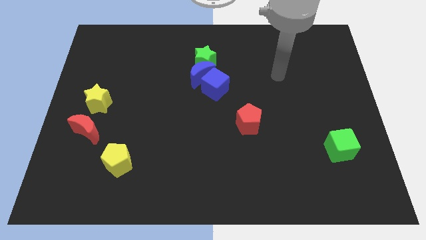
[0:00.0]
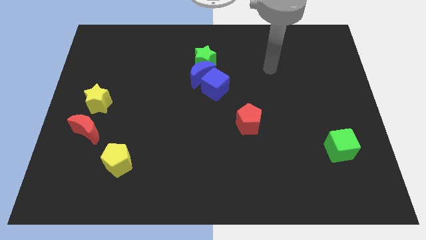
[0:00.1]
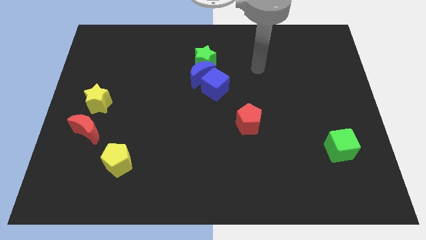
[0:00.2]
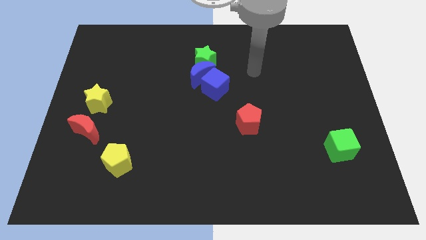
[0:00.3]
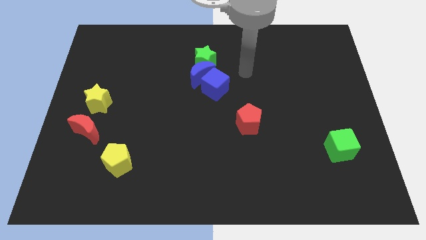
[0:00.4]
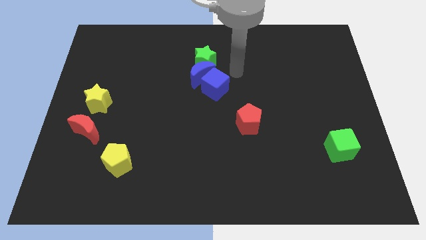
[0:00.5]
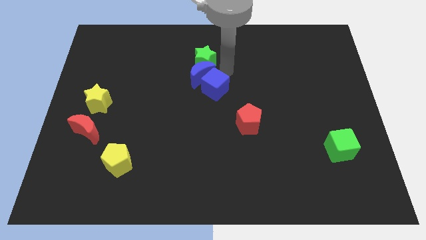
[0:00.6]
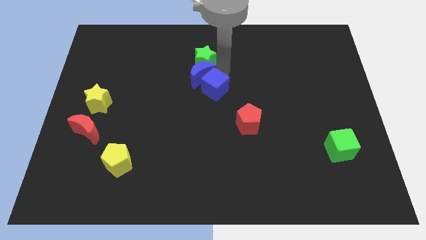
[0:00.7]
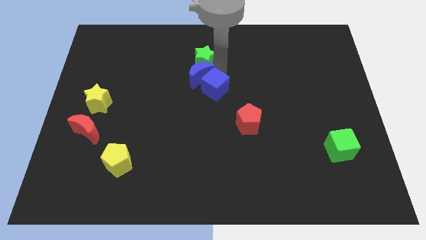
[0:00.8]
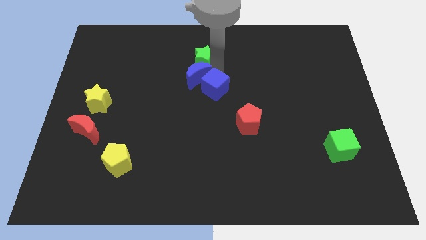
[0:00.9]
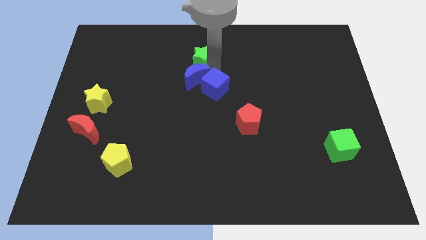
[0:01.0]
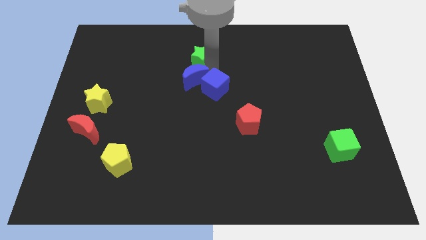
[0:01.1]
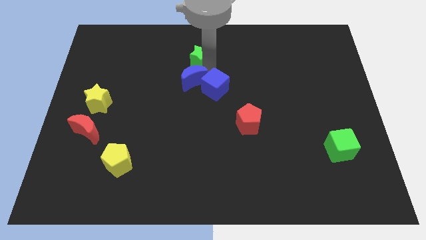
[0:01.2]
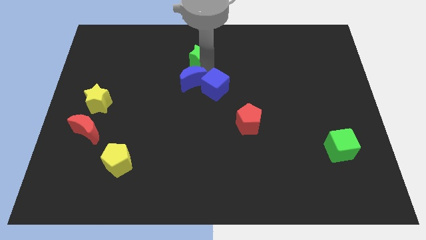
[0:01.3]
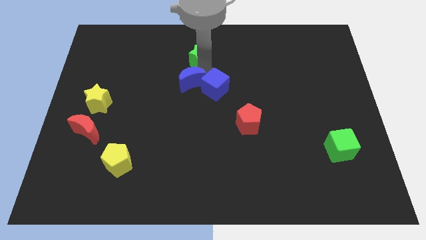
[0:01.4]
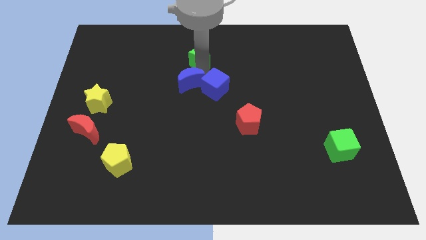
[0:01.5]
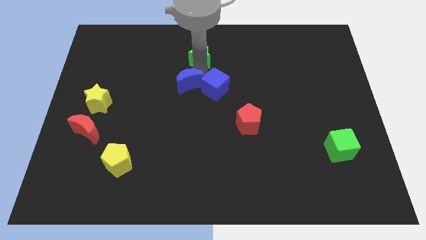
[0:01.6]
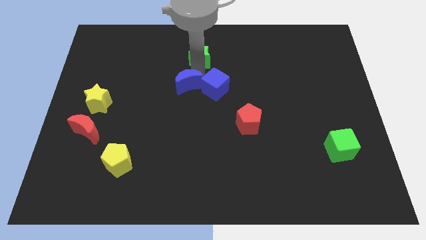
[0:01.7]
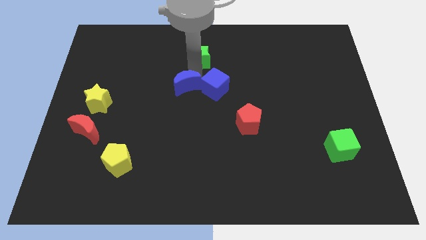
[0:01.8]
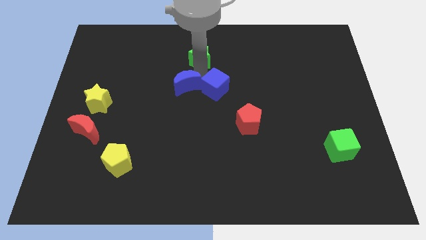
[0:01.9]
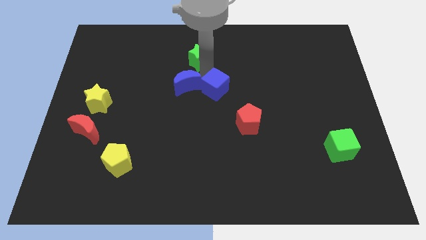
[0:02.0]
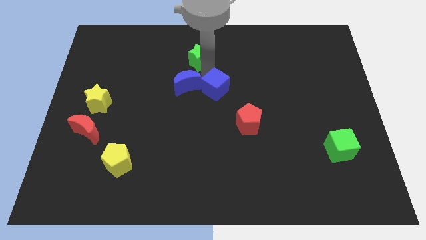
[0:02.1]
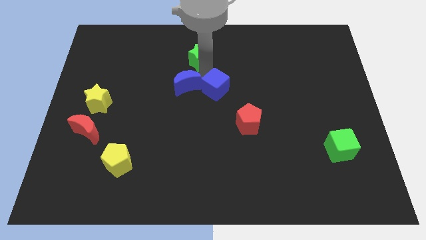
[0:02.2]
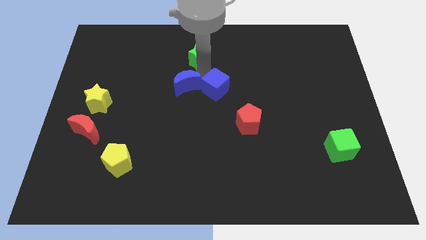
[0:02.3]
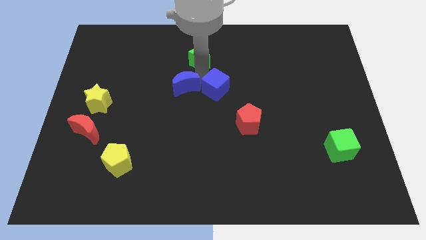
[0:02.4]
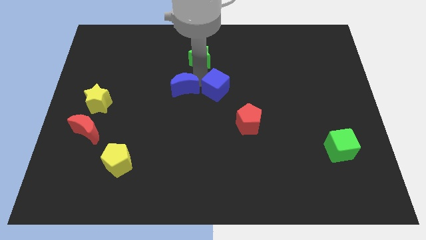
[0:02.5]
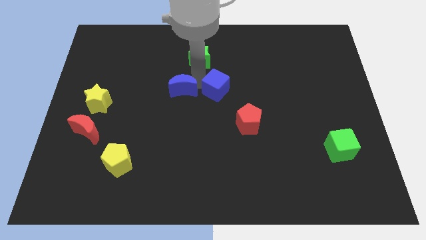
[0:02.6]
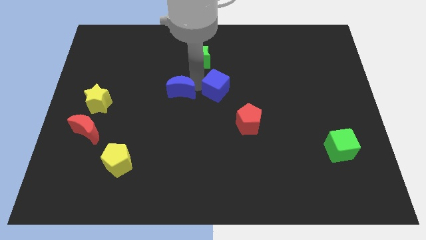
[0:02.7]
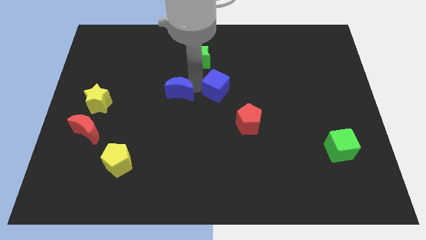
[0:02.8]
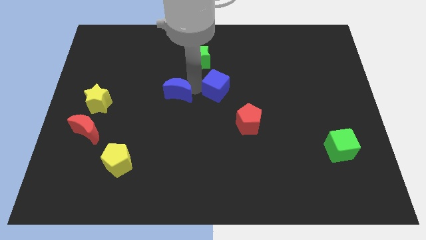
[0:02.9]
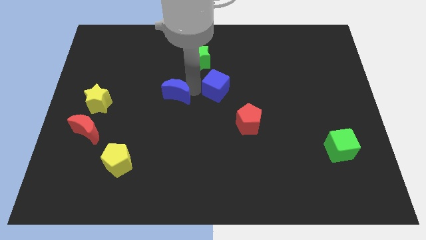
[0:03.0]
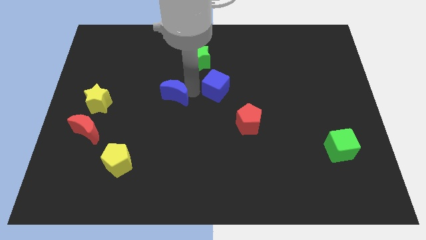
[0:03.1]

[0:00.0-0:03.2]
pull the blue moon apart from the blue cube and green star

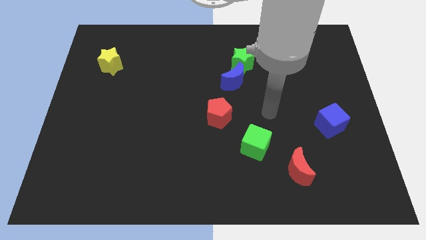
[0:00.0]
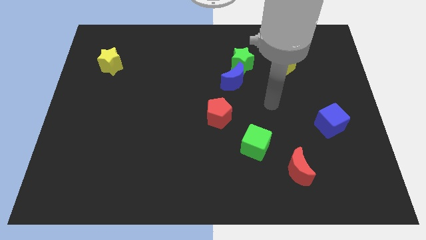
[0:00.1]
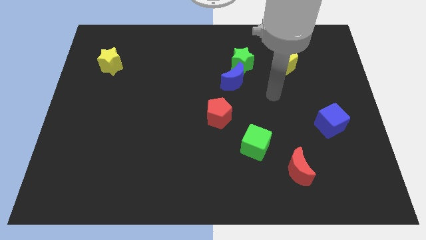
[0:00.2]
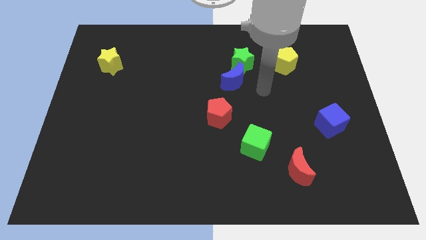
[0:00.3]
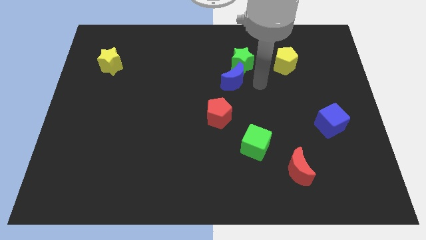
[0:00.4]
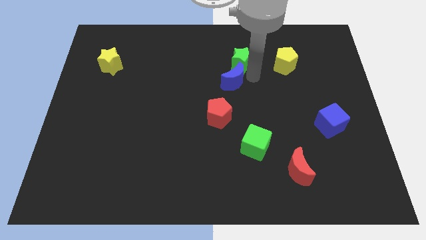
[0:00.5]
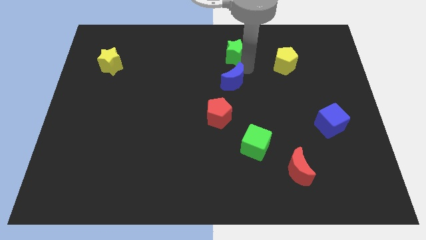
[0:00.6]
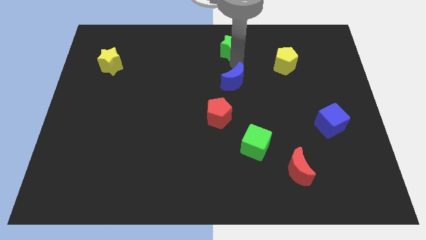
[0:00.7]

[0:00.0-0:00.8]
pull the blue moon apart from the green star

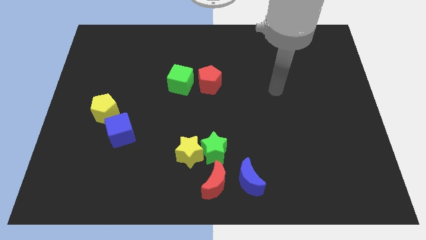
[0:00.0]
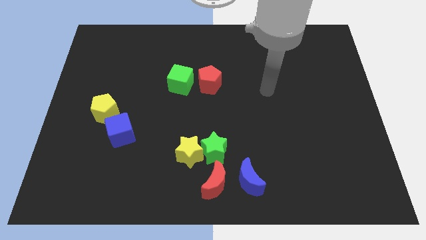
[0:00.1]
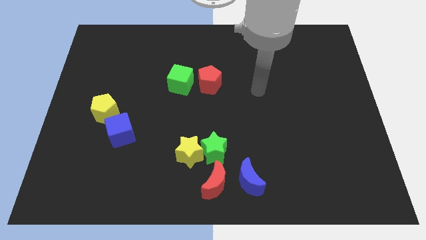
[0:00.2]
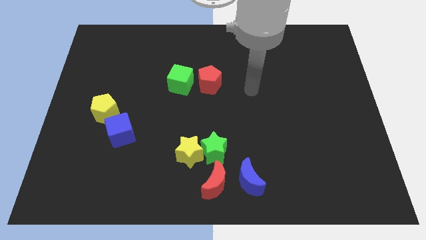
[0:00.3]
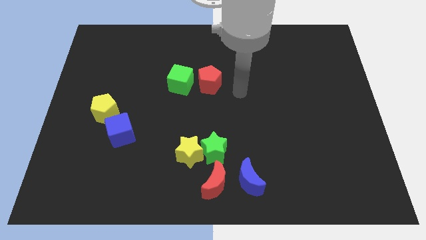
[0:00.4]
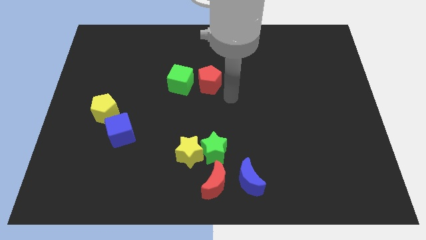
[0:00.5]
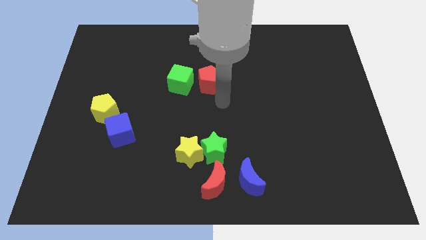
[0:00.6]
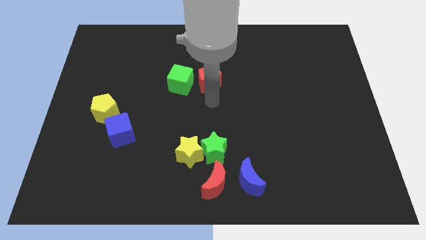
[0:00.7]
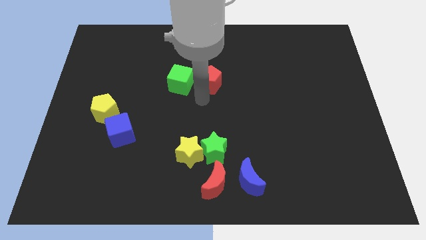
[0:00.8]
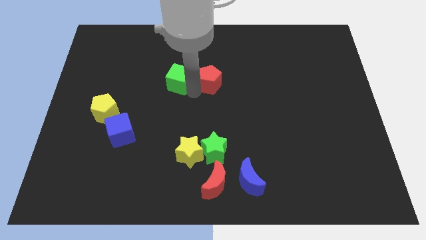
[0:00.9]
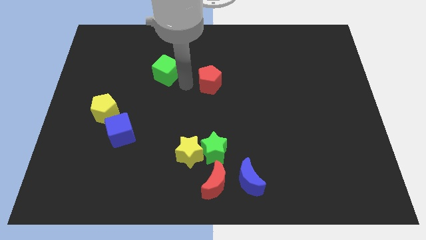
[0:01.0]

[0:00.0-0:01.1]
pull the red pentagon apart from the green cube

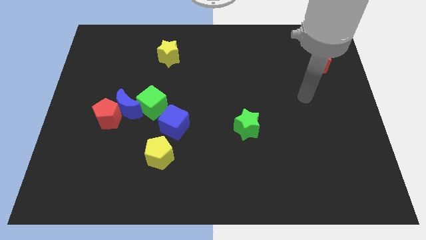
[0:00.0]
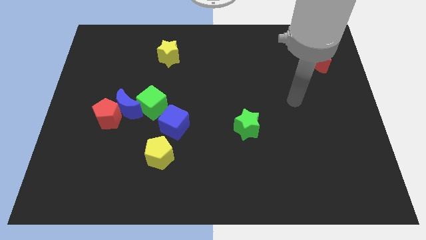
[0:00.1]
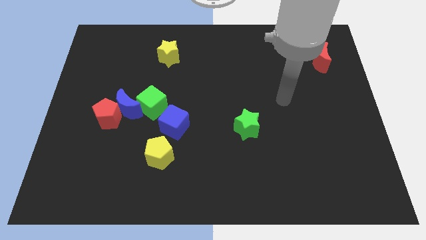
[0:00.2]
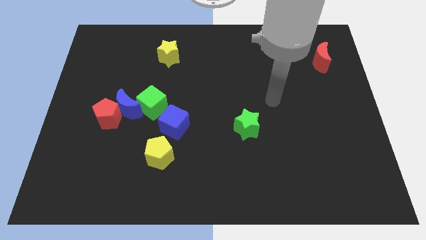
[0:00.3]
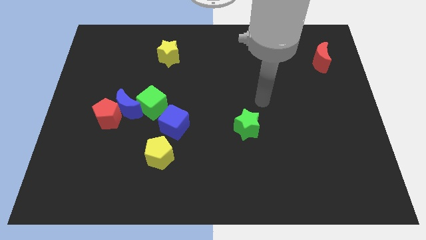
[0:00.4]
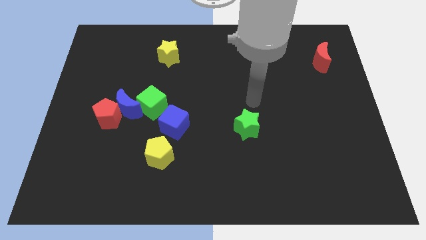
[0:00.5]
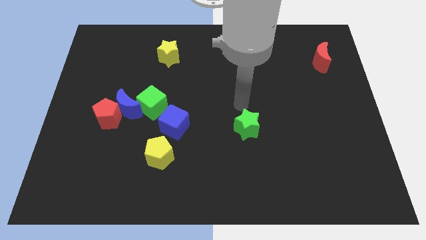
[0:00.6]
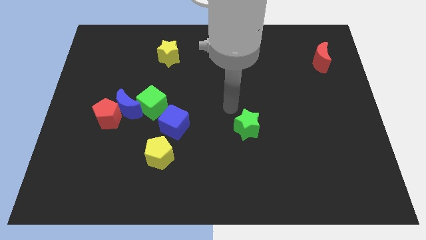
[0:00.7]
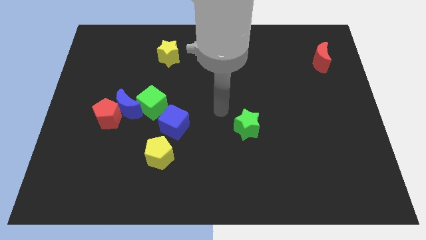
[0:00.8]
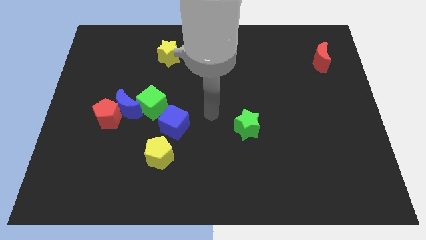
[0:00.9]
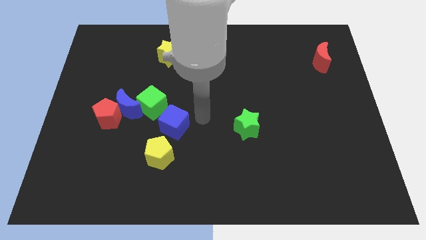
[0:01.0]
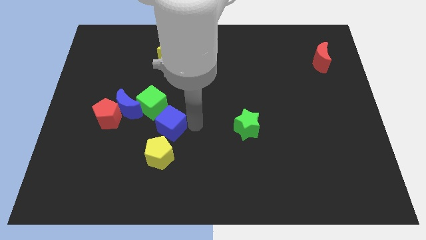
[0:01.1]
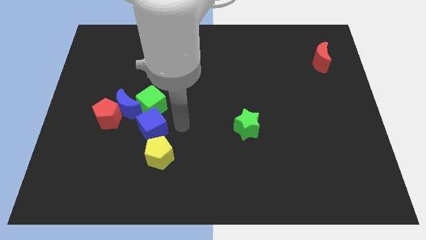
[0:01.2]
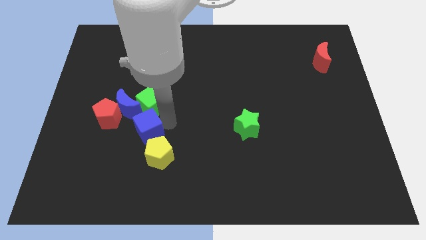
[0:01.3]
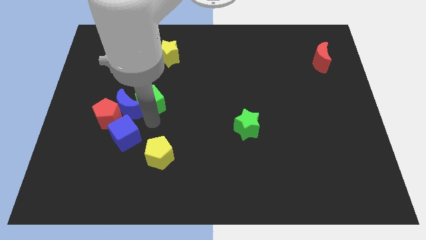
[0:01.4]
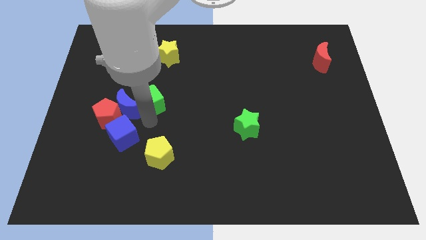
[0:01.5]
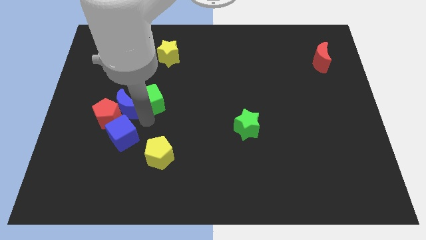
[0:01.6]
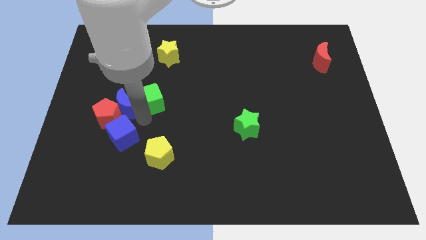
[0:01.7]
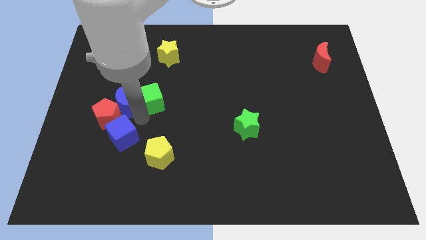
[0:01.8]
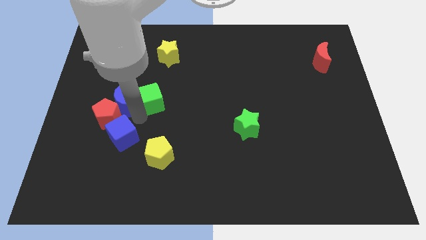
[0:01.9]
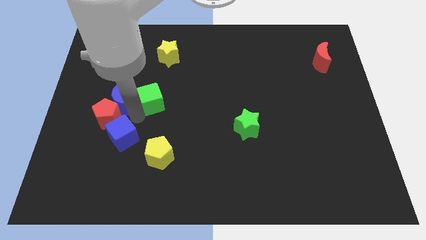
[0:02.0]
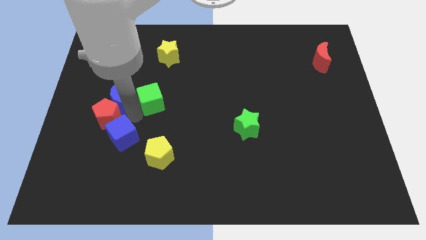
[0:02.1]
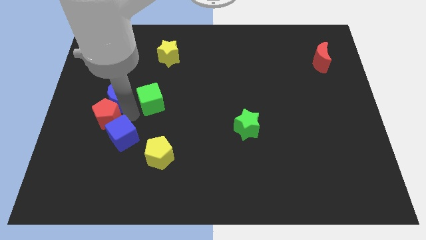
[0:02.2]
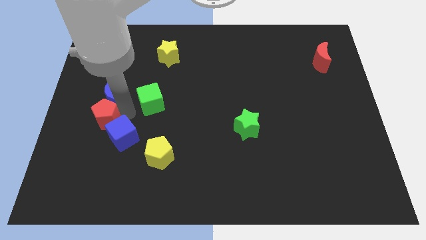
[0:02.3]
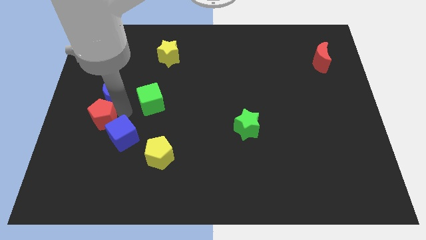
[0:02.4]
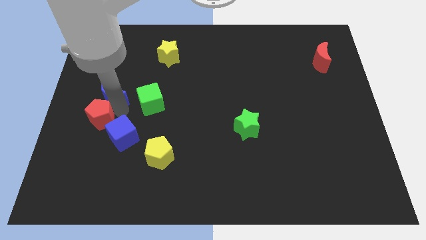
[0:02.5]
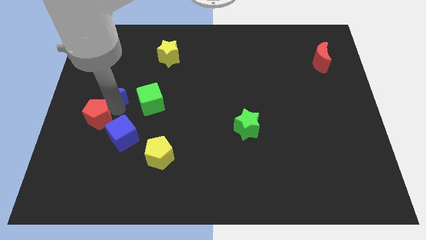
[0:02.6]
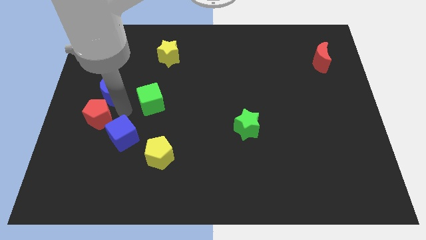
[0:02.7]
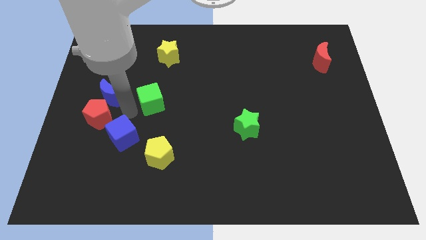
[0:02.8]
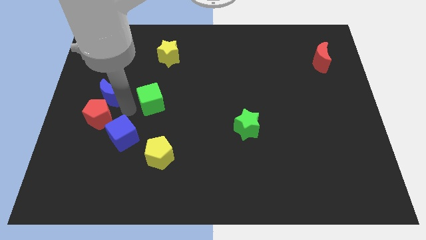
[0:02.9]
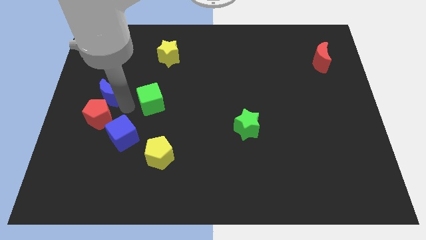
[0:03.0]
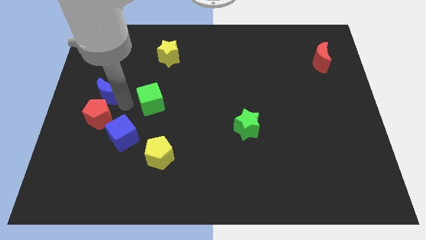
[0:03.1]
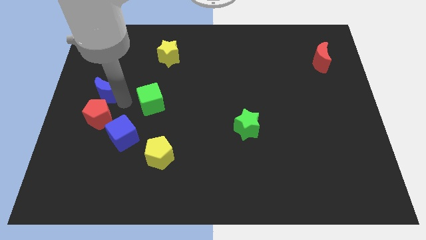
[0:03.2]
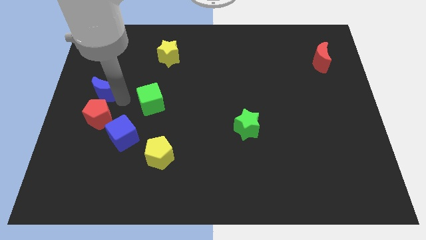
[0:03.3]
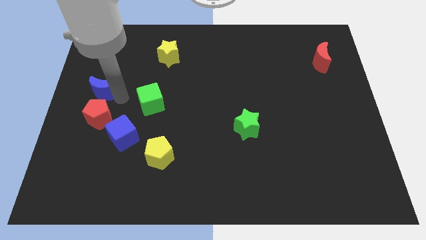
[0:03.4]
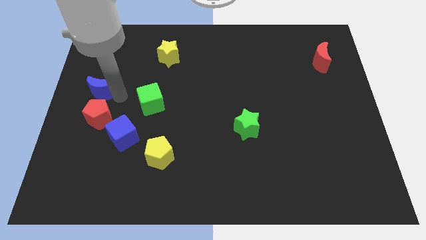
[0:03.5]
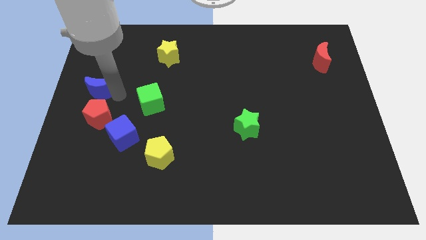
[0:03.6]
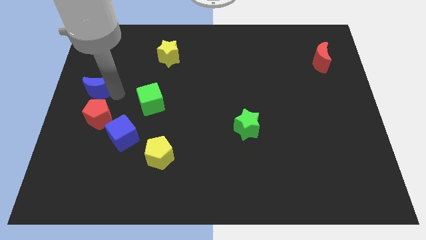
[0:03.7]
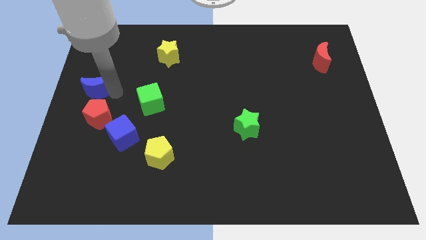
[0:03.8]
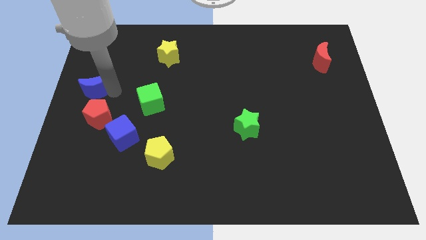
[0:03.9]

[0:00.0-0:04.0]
separate the blue moon from the red pentagon and green cube

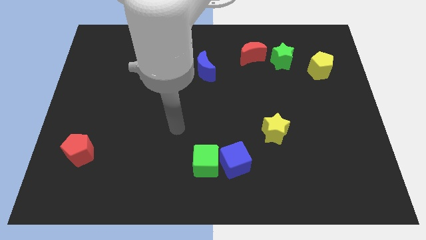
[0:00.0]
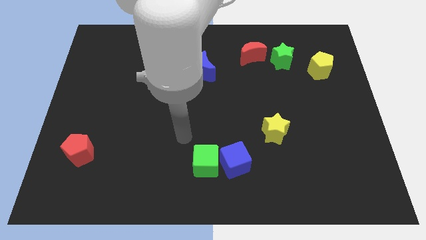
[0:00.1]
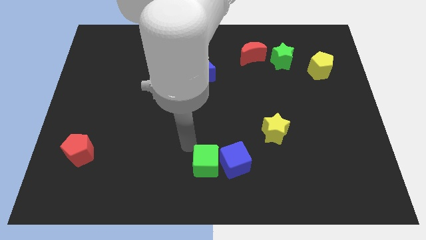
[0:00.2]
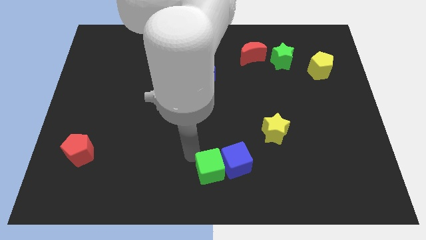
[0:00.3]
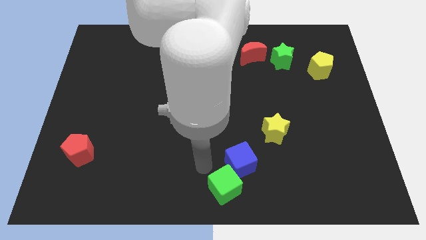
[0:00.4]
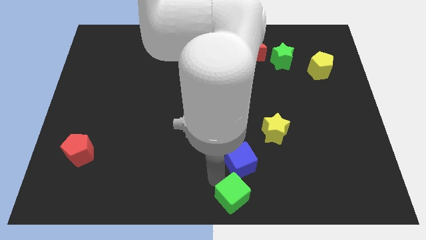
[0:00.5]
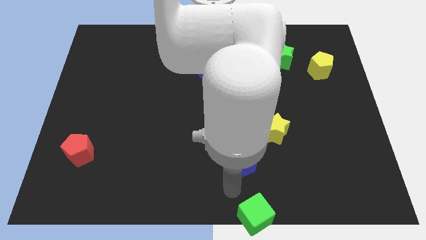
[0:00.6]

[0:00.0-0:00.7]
separate the blue cube from the green cube
